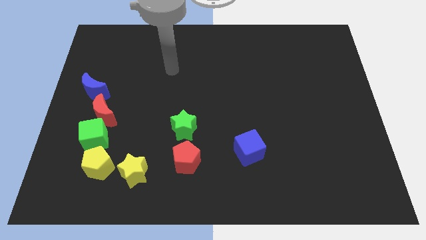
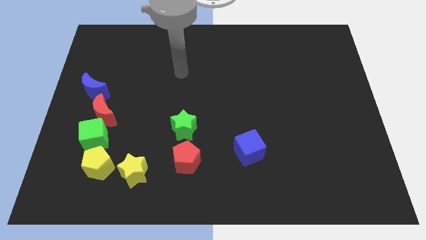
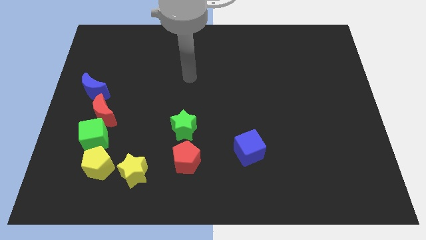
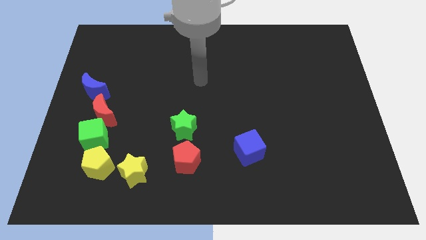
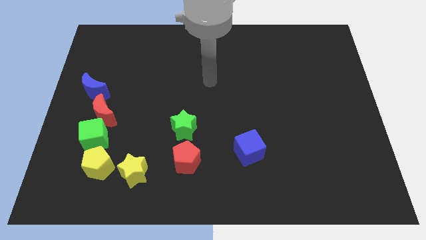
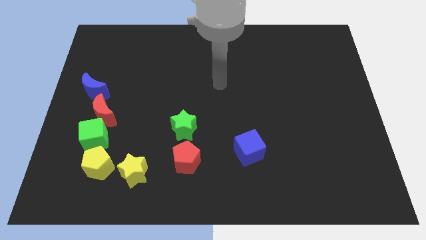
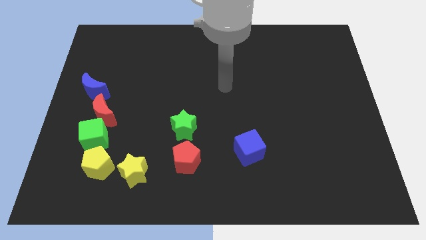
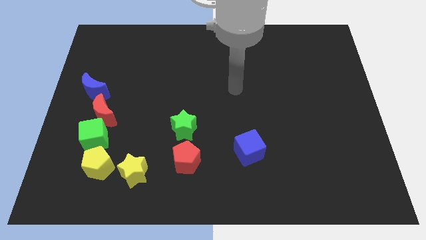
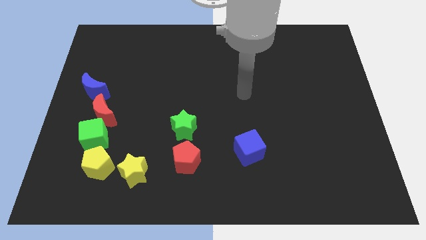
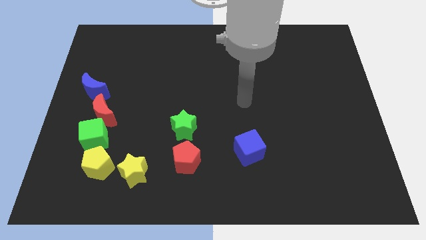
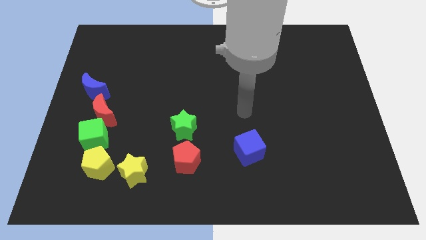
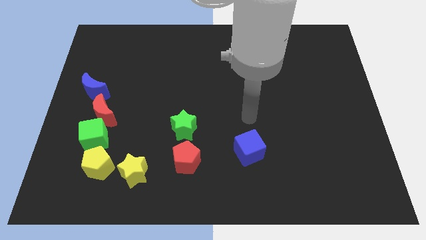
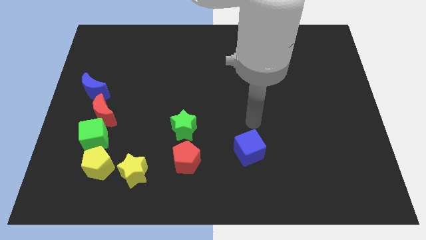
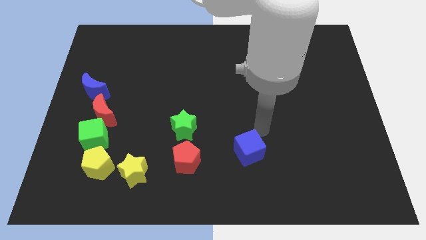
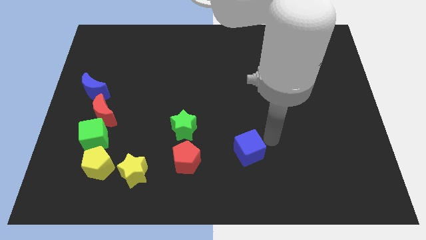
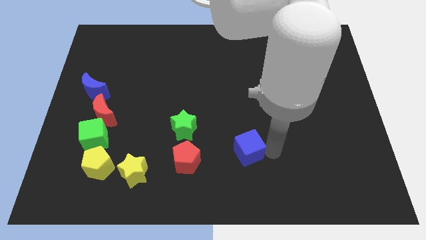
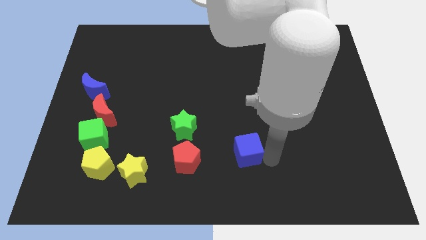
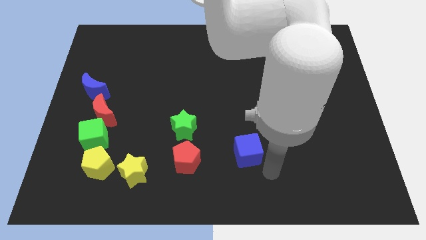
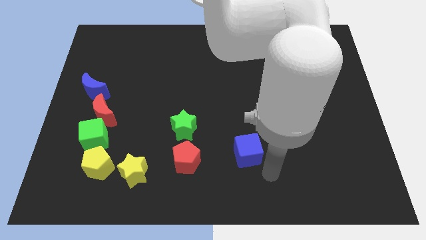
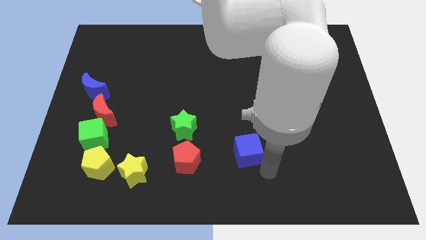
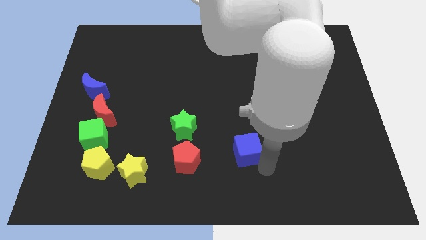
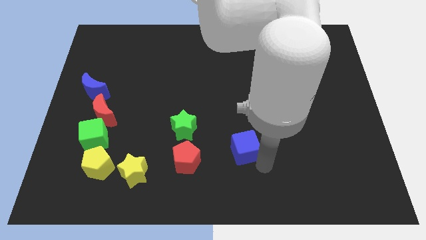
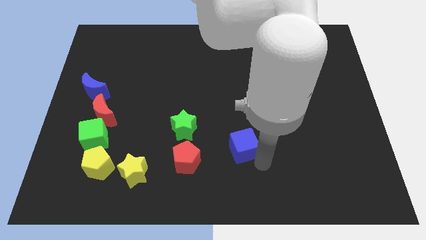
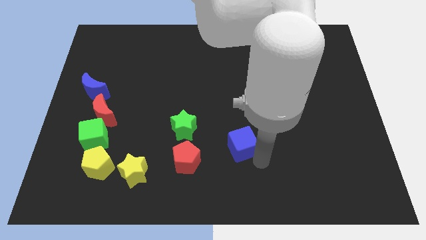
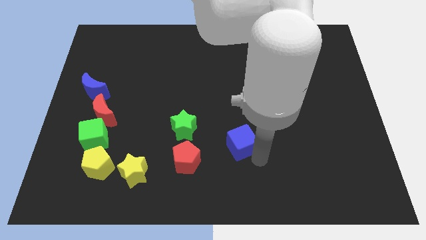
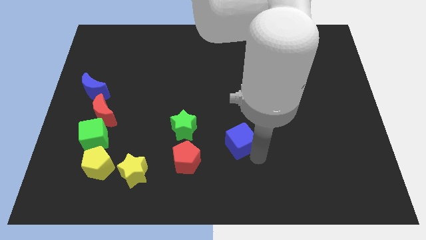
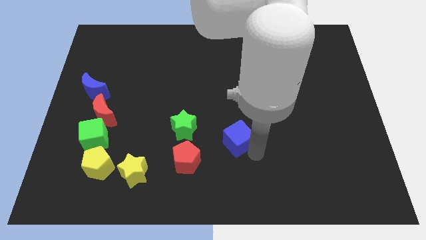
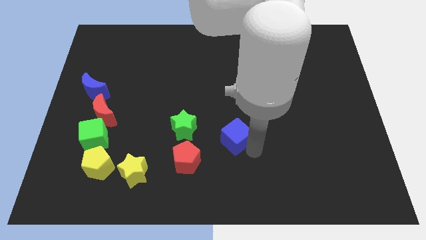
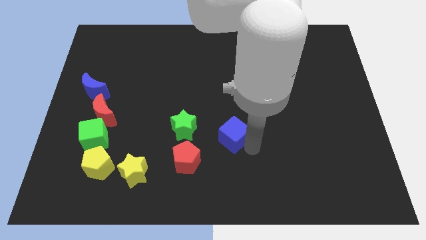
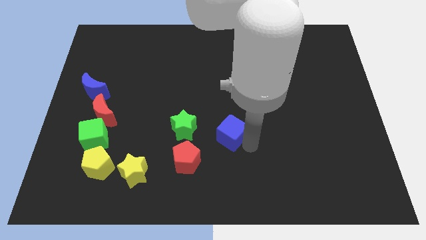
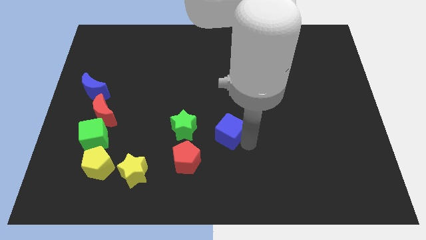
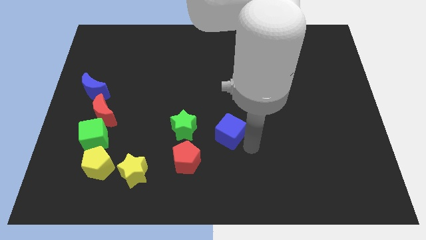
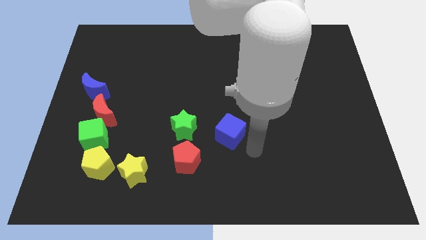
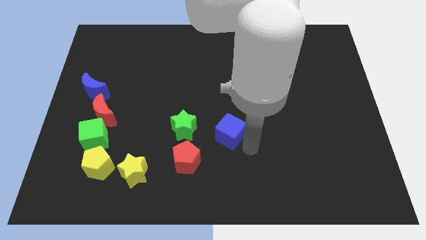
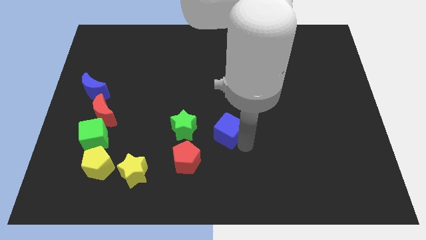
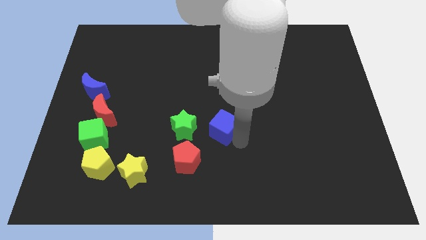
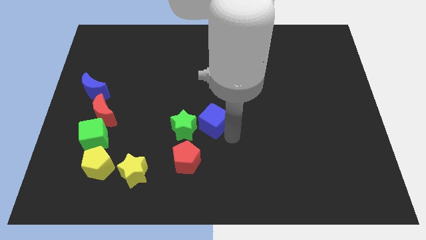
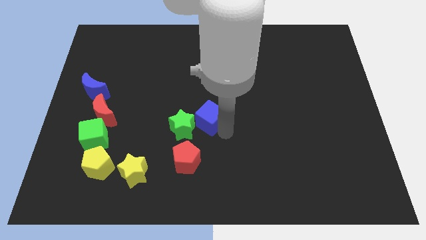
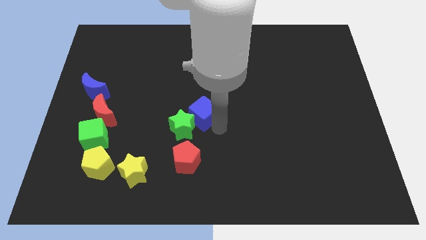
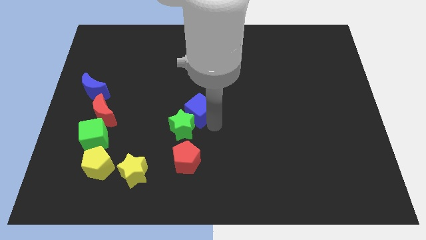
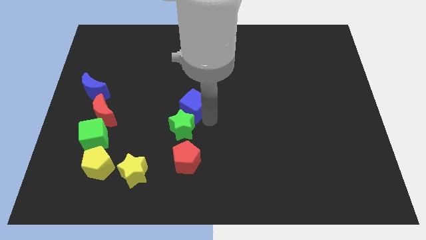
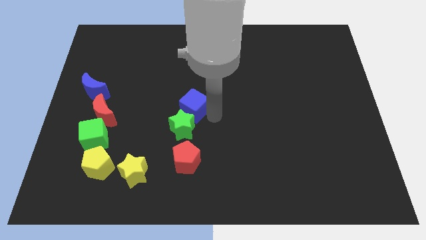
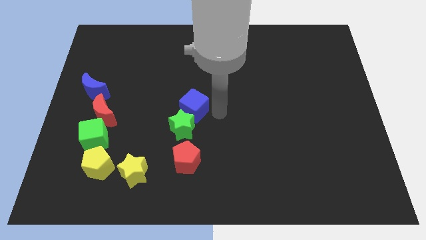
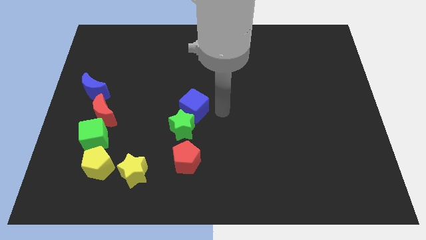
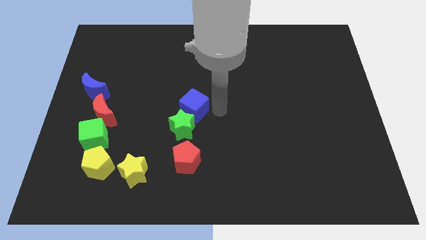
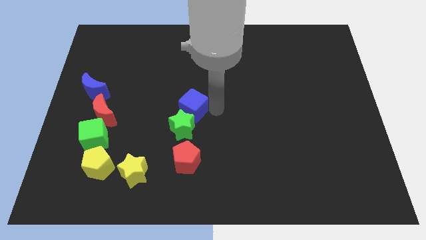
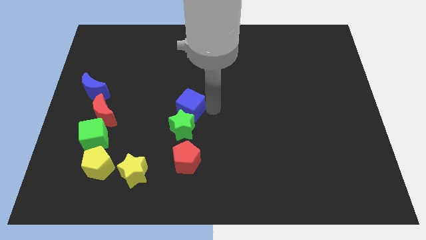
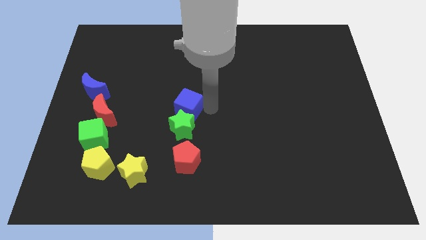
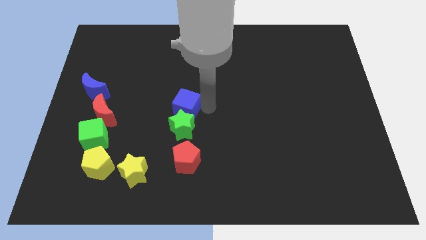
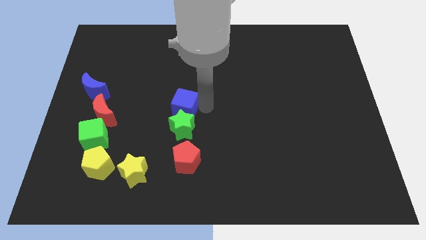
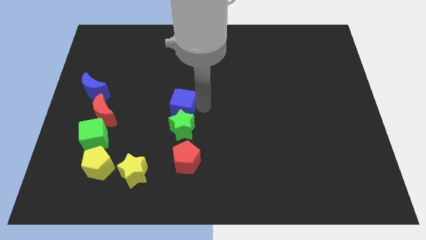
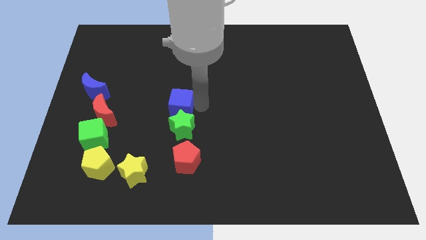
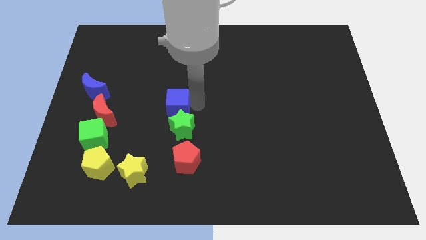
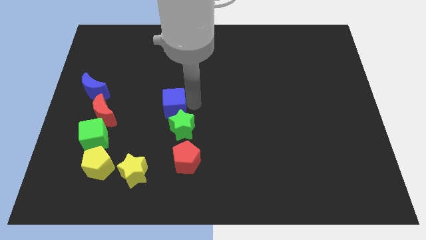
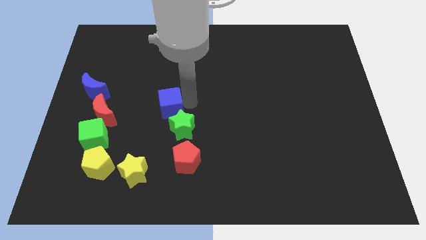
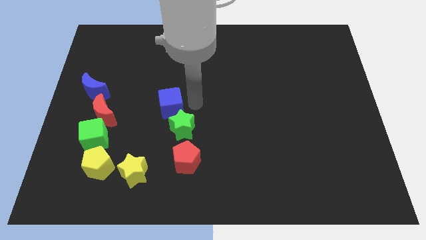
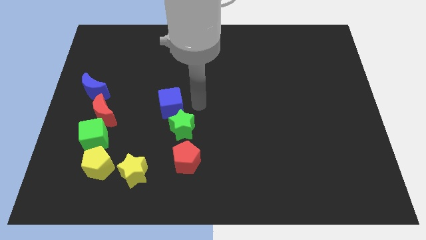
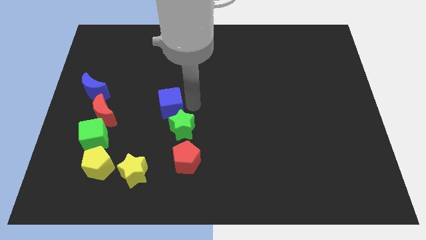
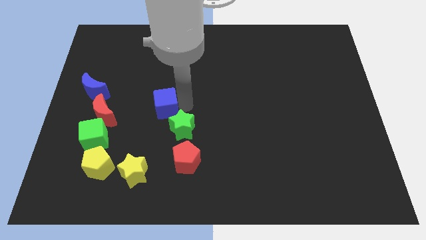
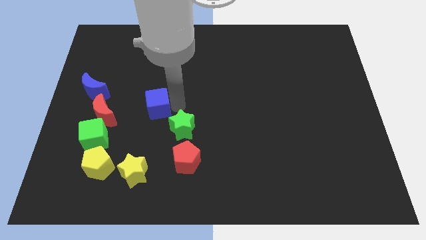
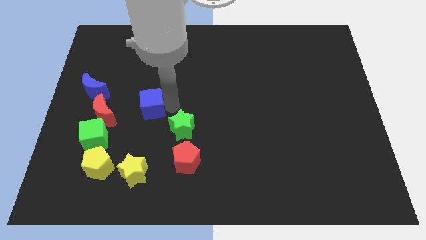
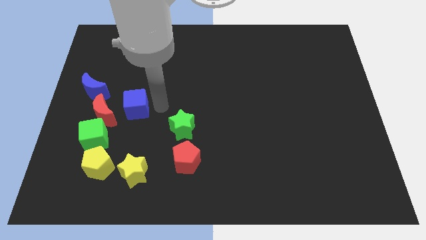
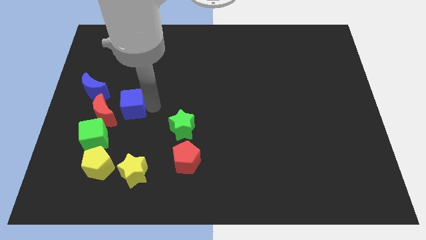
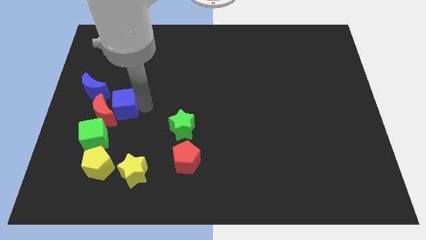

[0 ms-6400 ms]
put the blue cube towards the red moon

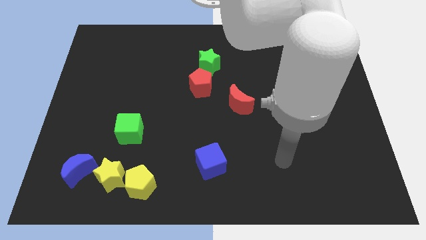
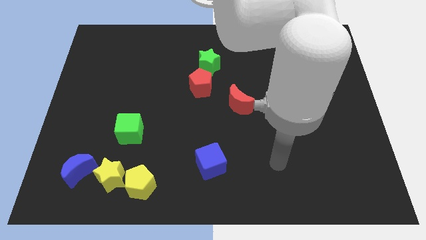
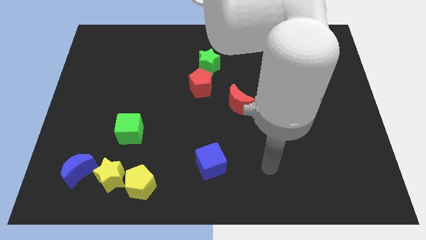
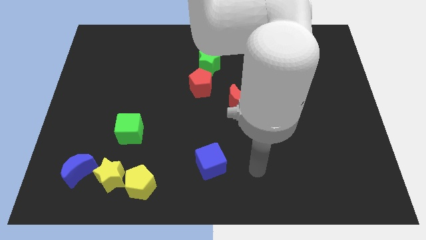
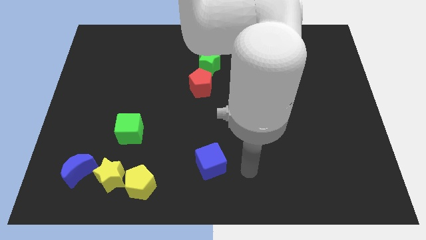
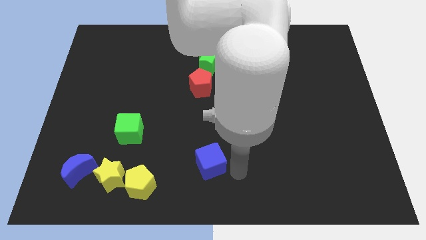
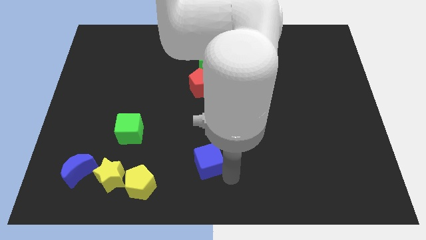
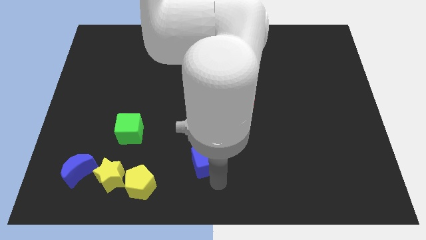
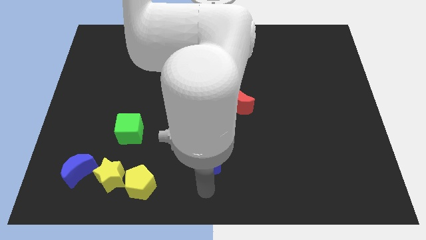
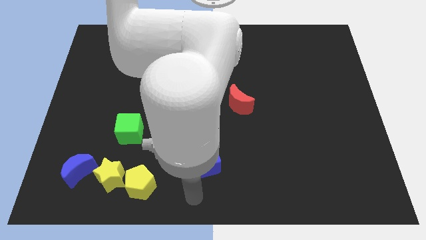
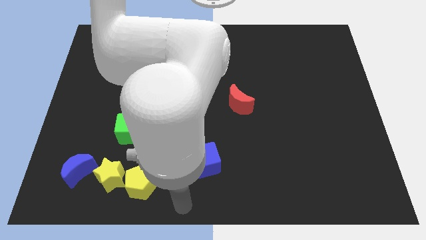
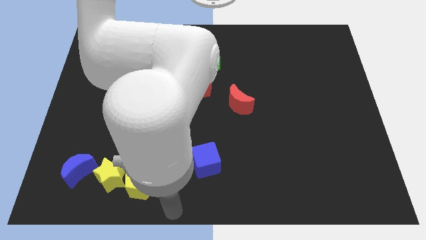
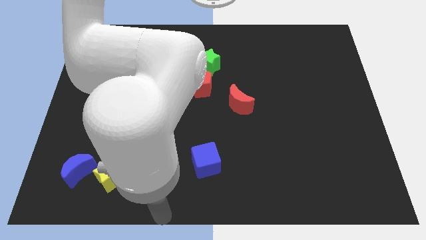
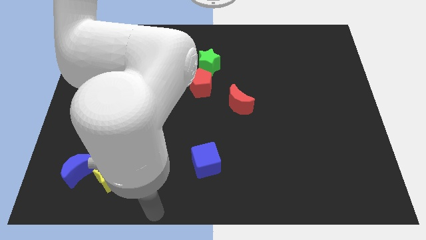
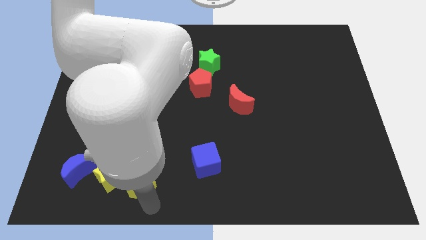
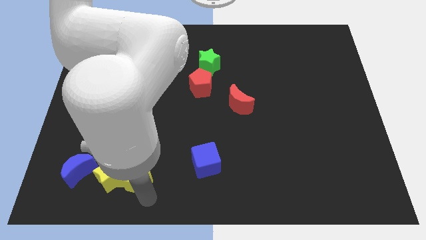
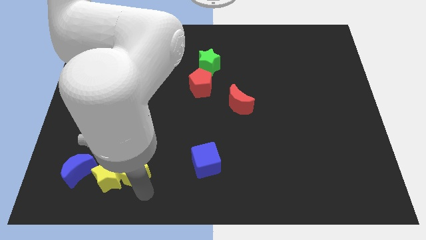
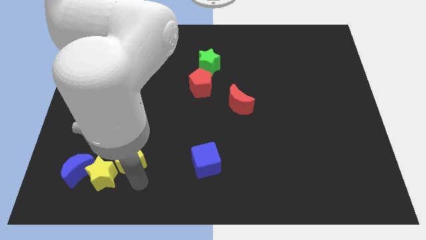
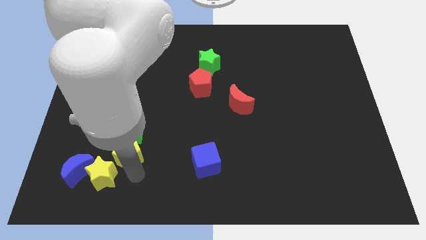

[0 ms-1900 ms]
put the yellow pentagon close to the green cube
